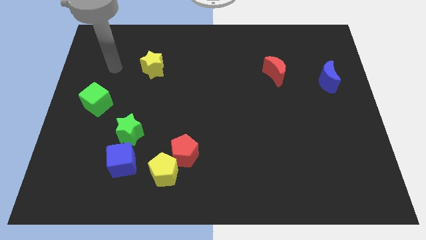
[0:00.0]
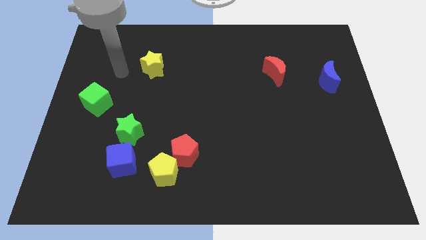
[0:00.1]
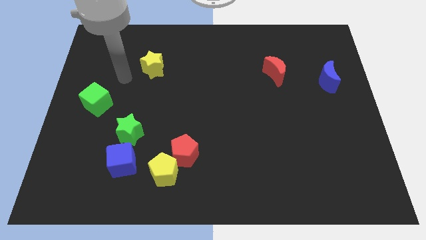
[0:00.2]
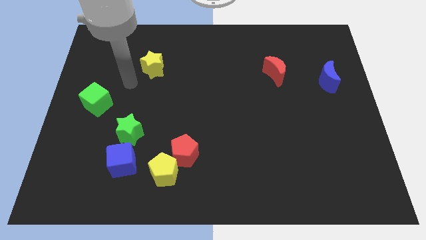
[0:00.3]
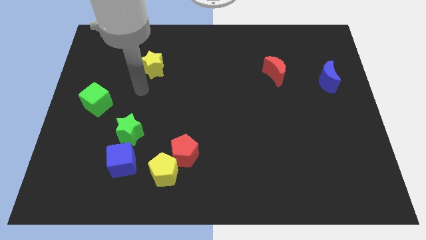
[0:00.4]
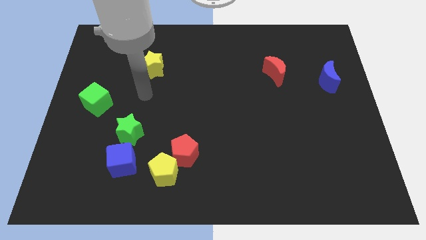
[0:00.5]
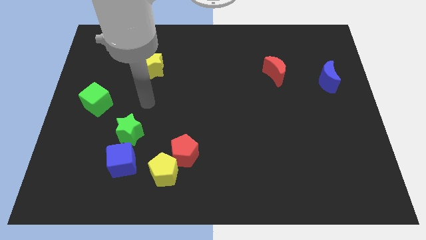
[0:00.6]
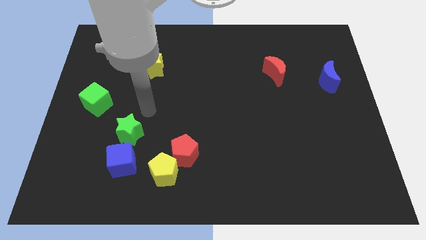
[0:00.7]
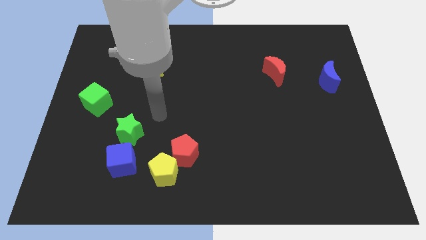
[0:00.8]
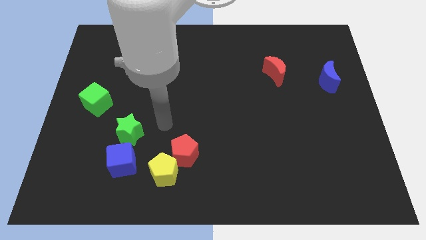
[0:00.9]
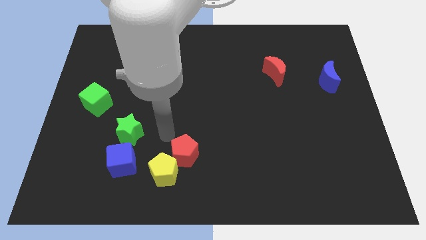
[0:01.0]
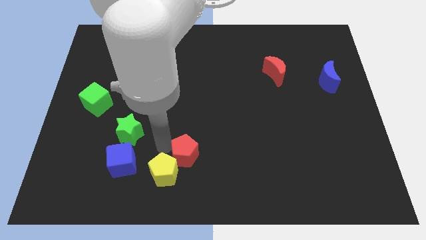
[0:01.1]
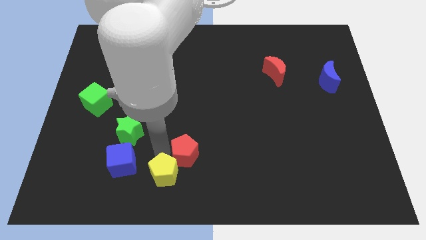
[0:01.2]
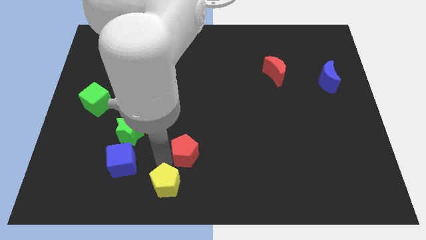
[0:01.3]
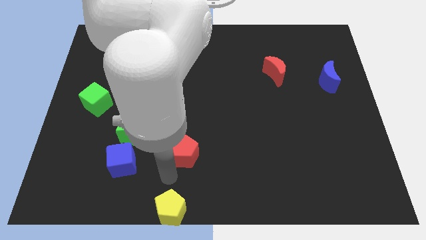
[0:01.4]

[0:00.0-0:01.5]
separate the red pentagon from the yellow pentagon

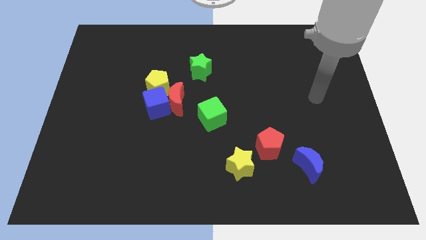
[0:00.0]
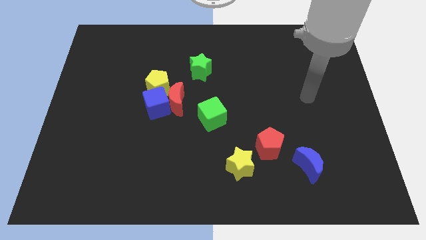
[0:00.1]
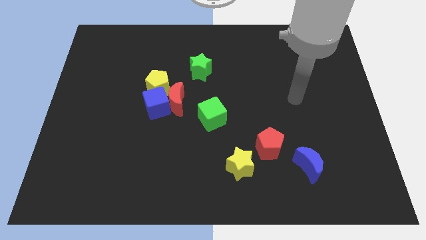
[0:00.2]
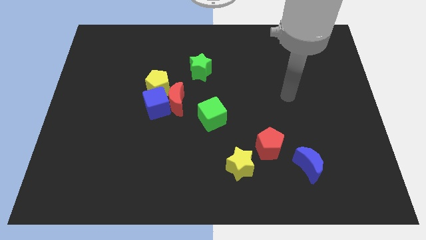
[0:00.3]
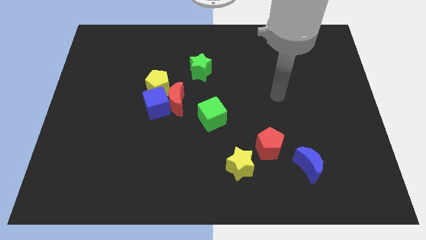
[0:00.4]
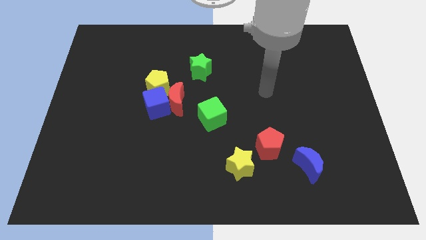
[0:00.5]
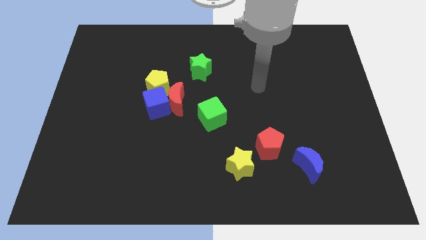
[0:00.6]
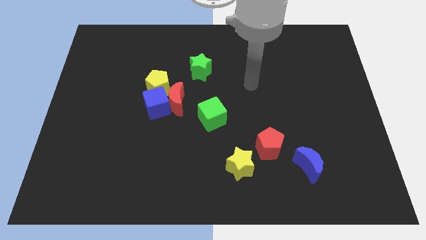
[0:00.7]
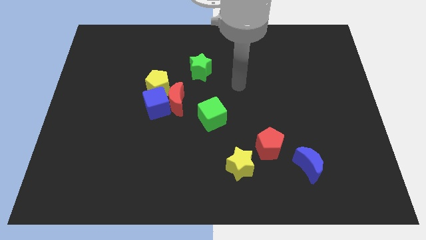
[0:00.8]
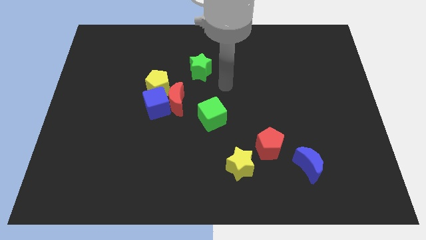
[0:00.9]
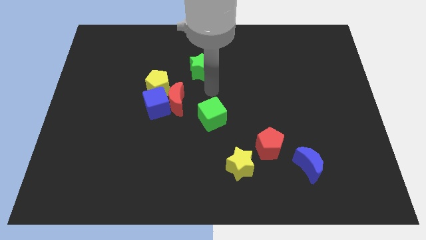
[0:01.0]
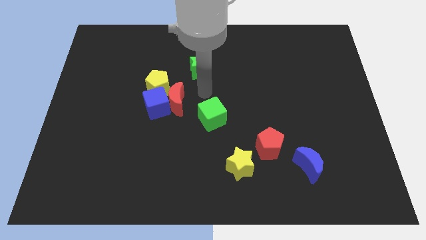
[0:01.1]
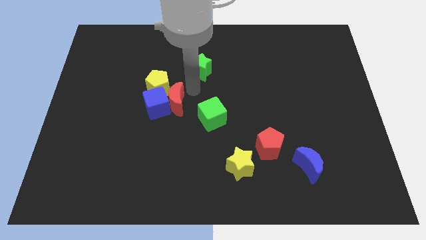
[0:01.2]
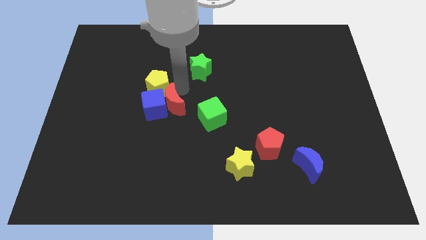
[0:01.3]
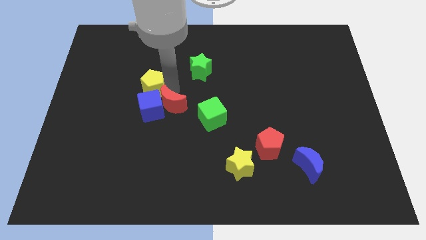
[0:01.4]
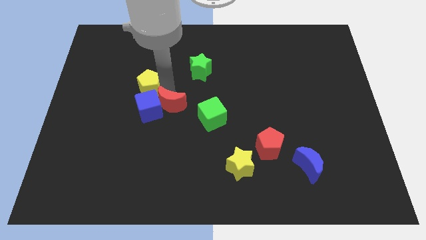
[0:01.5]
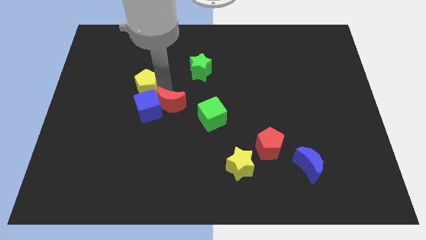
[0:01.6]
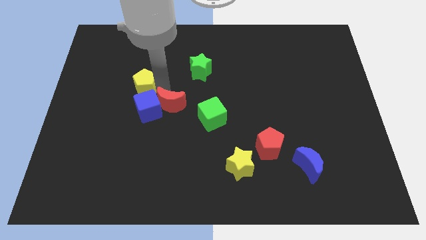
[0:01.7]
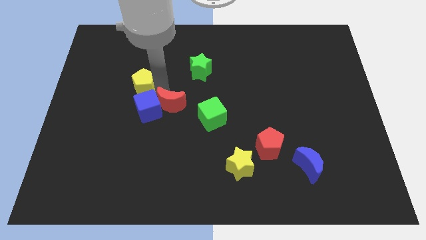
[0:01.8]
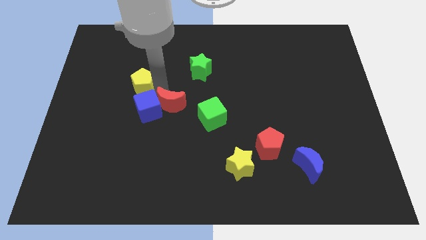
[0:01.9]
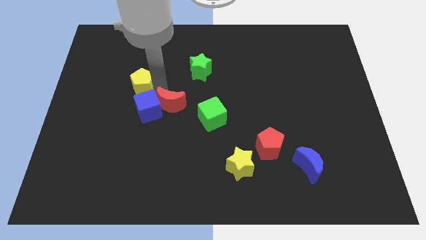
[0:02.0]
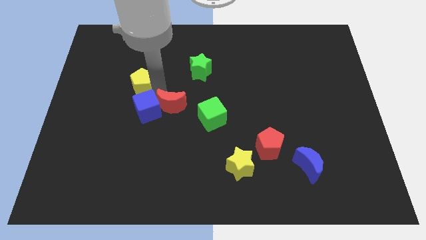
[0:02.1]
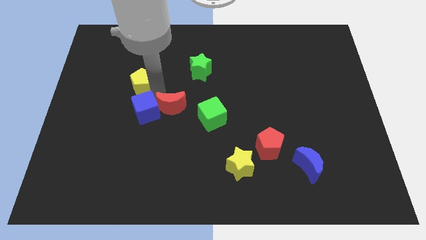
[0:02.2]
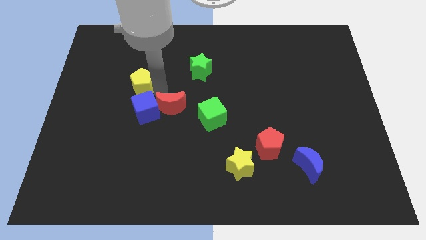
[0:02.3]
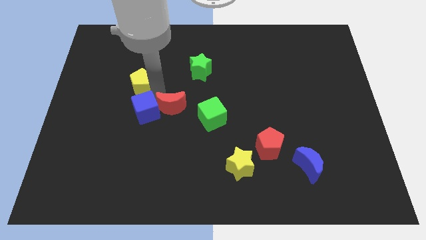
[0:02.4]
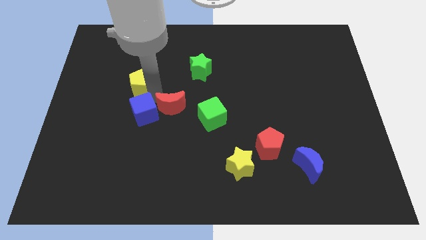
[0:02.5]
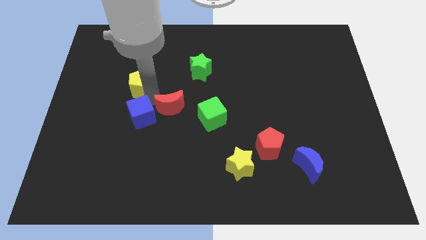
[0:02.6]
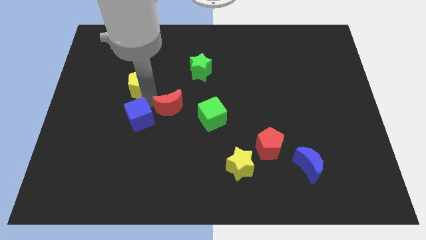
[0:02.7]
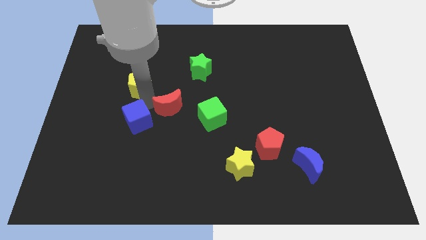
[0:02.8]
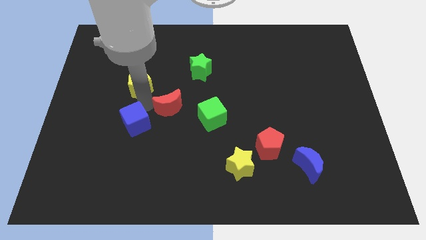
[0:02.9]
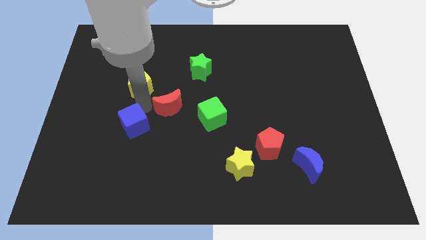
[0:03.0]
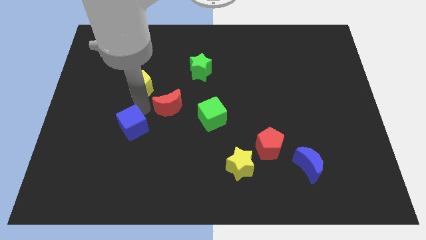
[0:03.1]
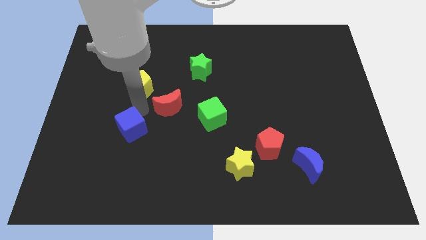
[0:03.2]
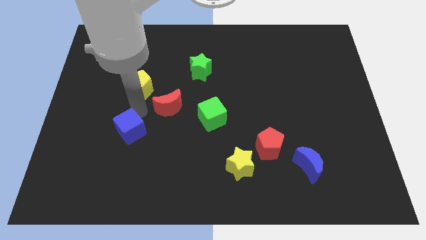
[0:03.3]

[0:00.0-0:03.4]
separate the blue cube from the red moon and yellow pentagon

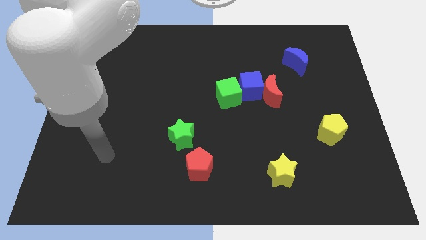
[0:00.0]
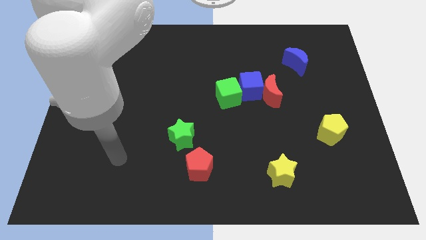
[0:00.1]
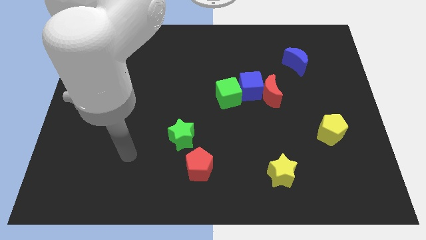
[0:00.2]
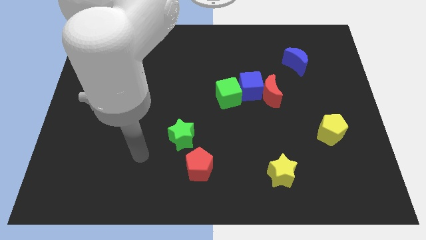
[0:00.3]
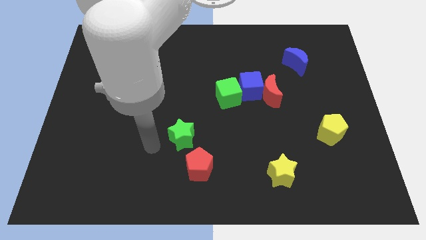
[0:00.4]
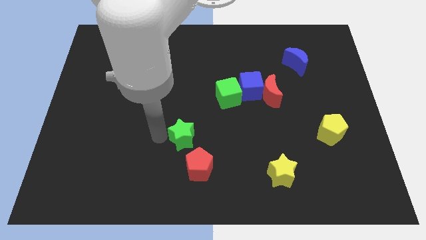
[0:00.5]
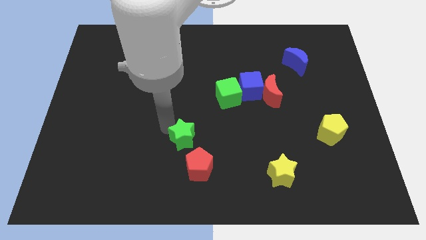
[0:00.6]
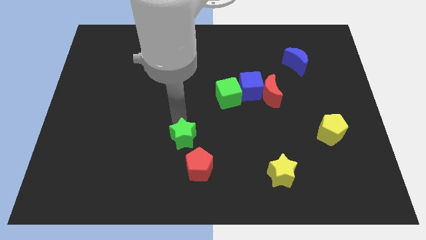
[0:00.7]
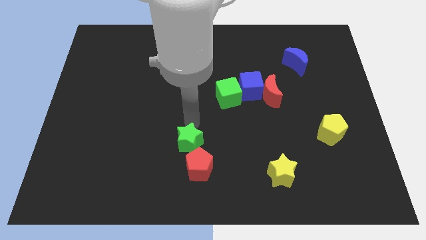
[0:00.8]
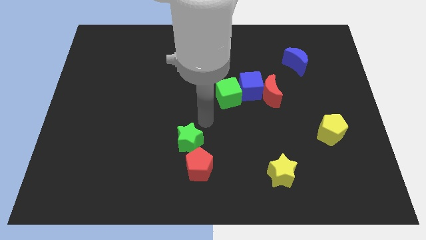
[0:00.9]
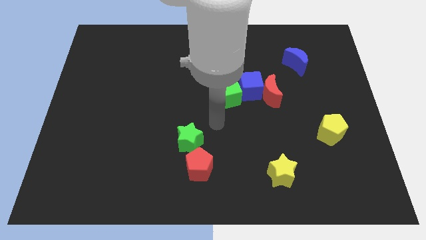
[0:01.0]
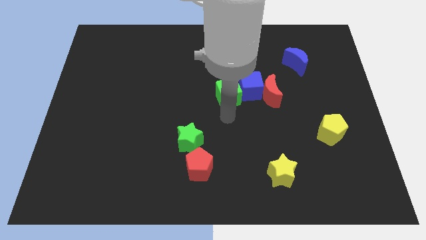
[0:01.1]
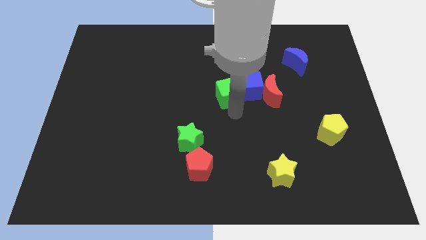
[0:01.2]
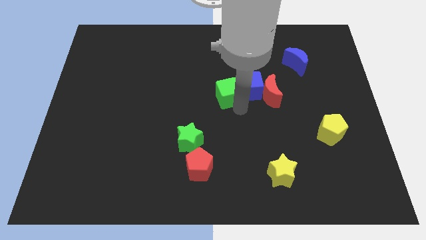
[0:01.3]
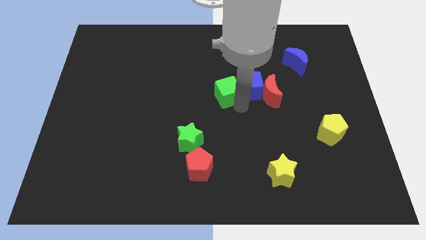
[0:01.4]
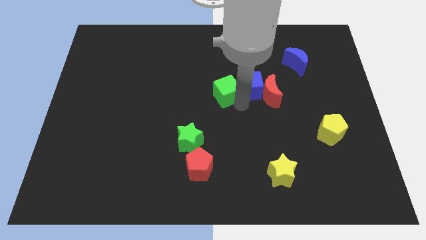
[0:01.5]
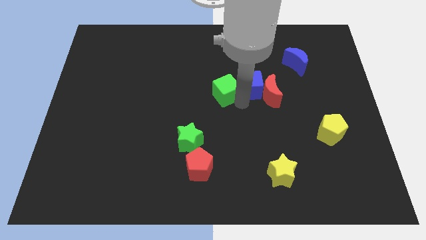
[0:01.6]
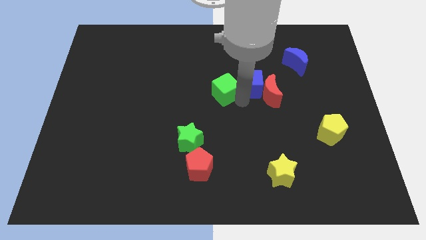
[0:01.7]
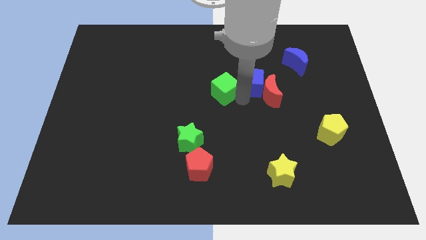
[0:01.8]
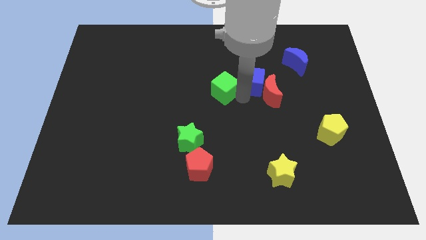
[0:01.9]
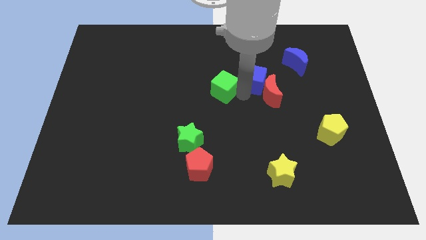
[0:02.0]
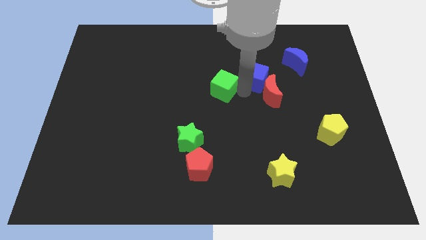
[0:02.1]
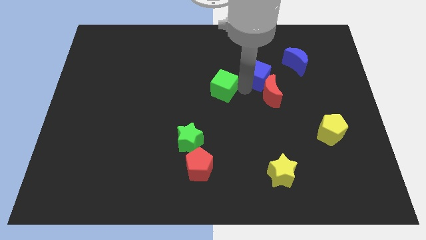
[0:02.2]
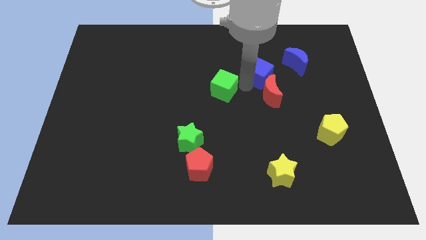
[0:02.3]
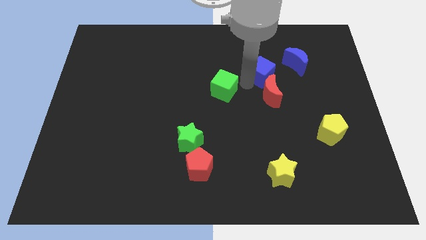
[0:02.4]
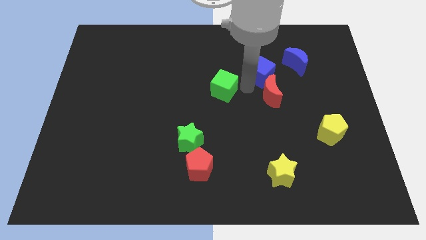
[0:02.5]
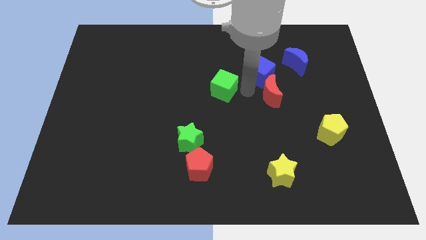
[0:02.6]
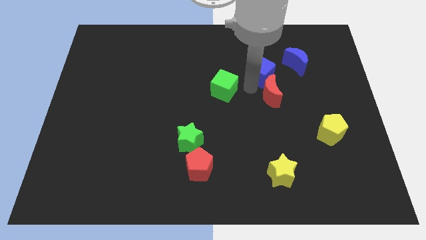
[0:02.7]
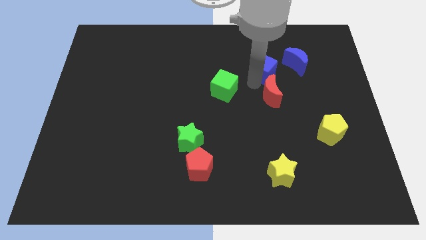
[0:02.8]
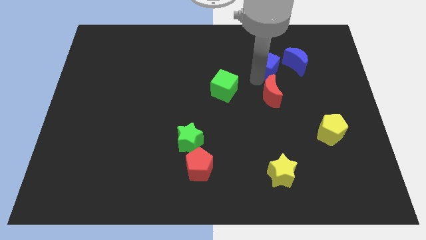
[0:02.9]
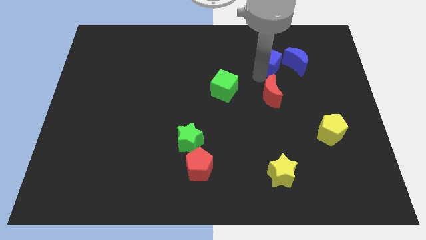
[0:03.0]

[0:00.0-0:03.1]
pull the blue cube apart from the red moon and green cube

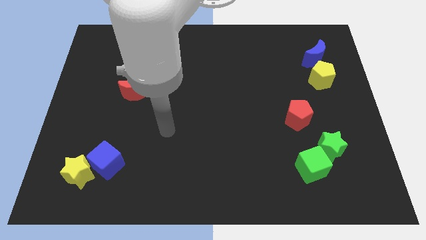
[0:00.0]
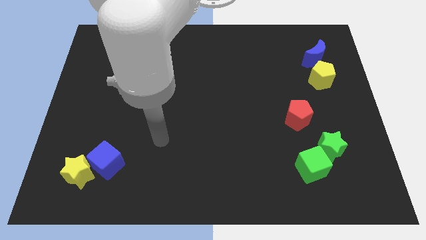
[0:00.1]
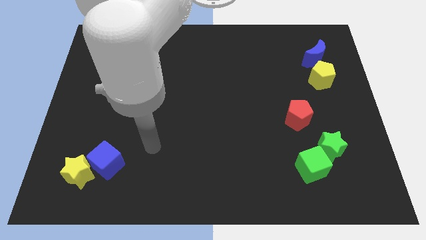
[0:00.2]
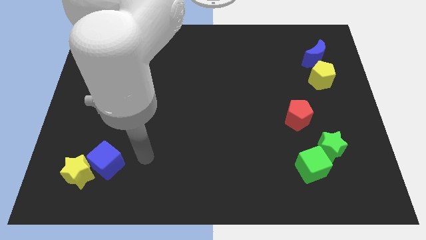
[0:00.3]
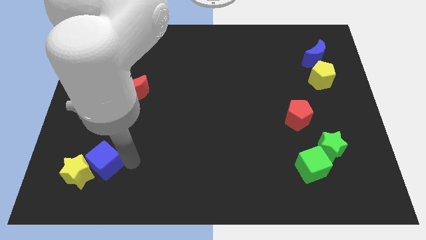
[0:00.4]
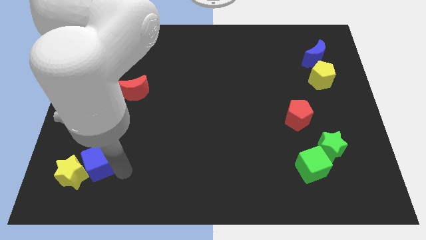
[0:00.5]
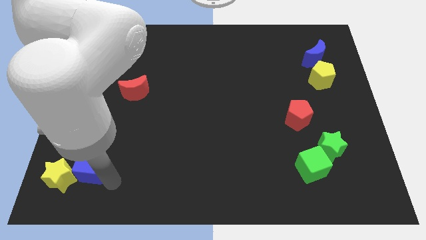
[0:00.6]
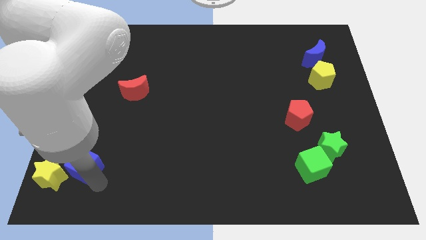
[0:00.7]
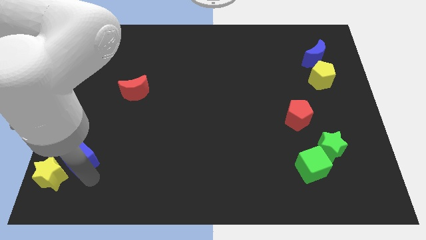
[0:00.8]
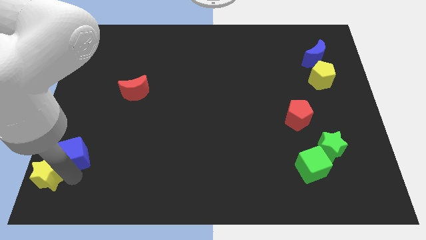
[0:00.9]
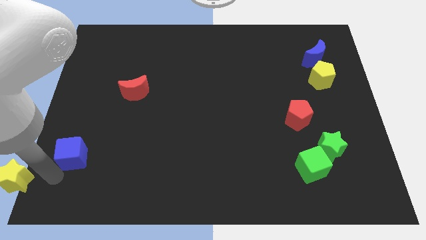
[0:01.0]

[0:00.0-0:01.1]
separate the blue cube from the yellow star

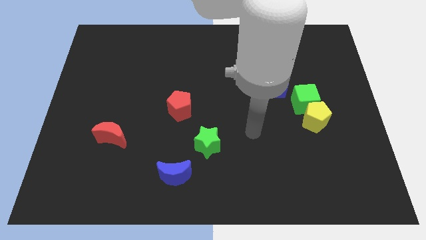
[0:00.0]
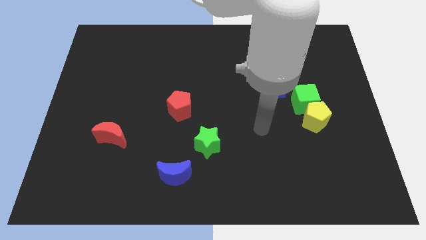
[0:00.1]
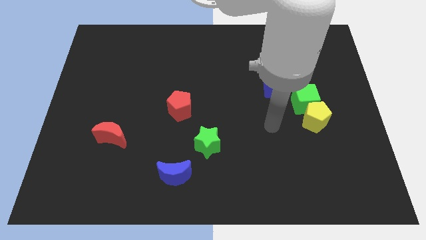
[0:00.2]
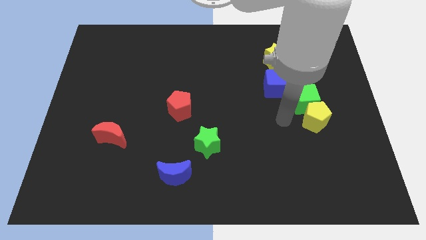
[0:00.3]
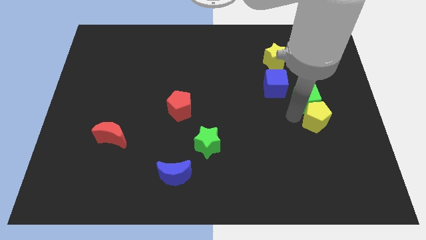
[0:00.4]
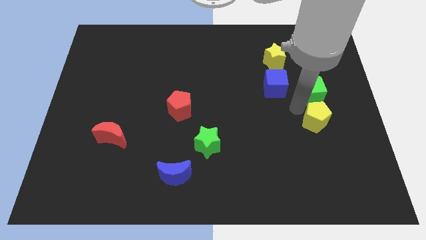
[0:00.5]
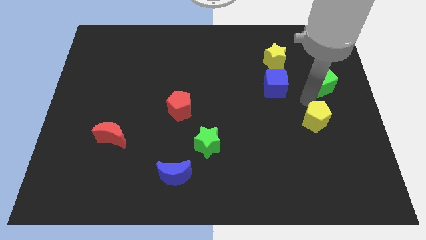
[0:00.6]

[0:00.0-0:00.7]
pull the yellow pentagon apart from the green cube
